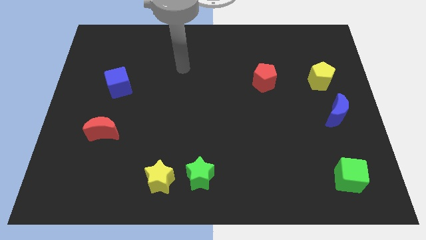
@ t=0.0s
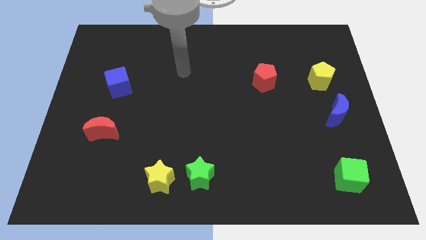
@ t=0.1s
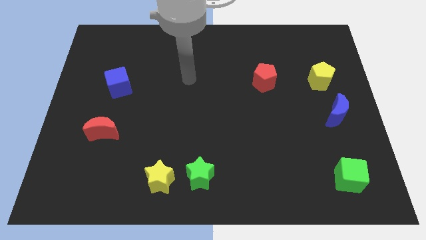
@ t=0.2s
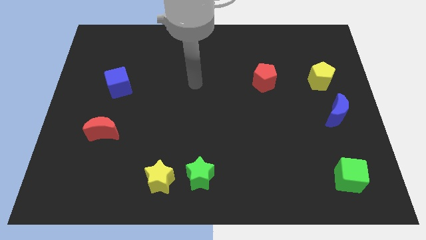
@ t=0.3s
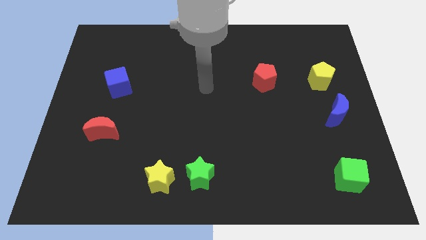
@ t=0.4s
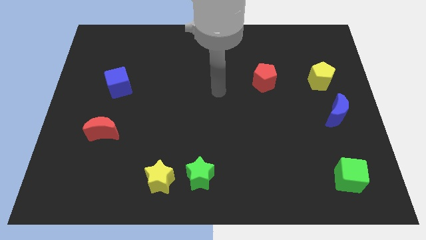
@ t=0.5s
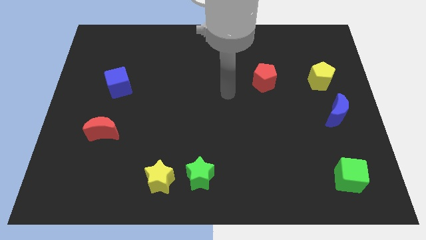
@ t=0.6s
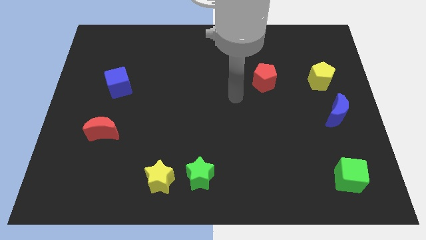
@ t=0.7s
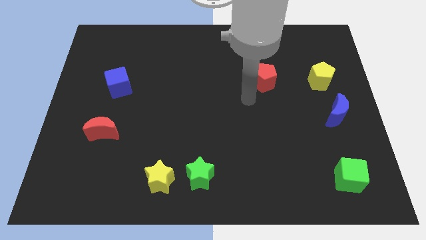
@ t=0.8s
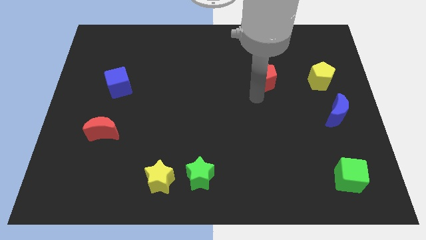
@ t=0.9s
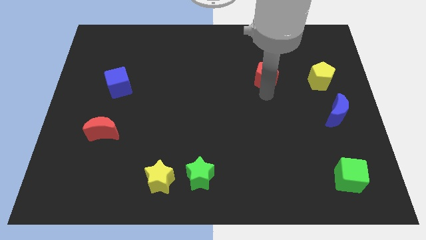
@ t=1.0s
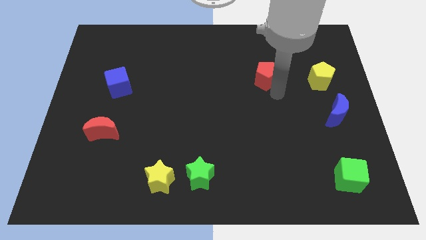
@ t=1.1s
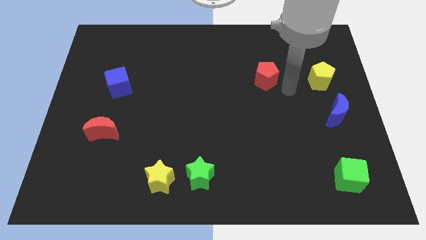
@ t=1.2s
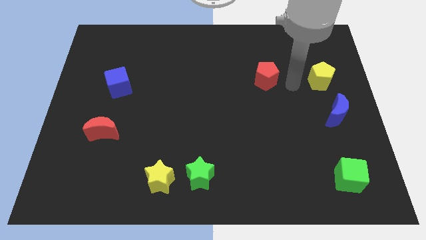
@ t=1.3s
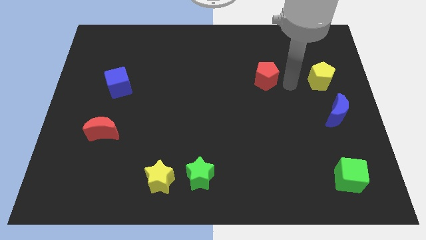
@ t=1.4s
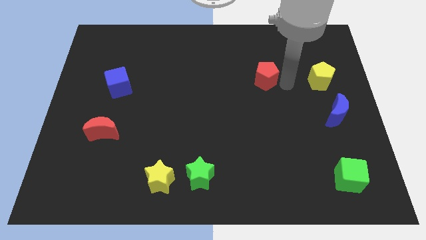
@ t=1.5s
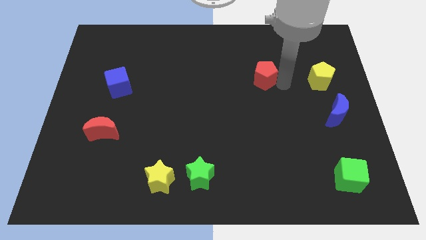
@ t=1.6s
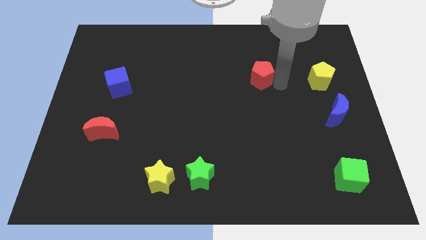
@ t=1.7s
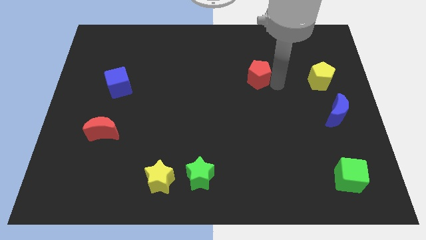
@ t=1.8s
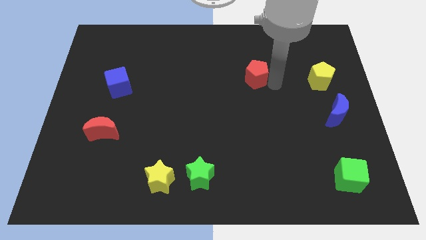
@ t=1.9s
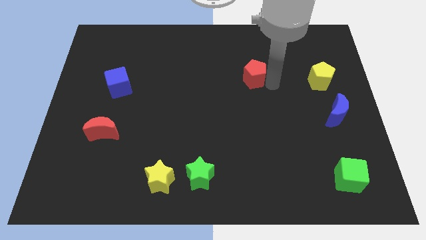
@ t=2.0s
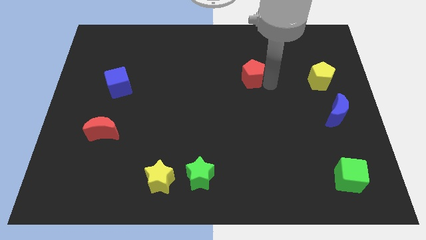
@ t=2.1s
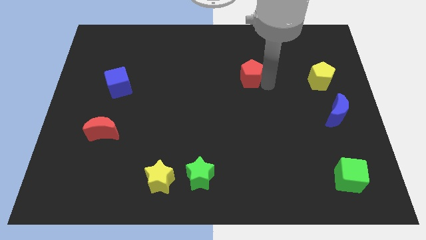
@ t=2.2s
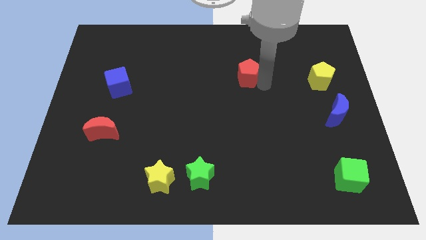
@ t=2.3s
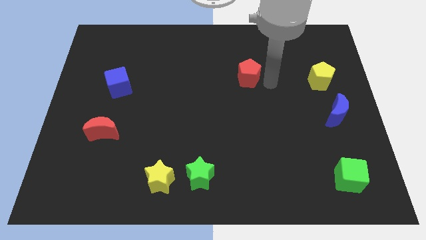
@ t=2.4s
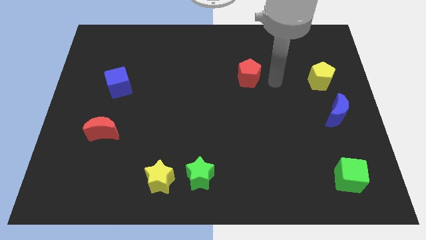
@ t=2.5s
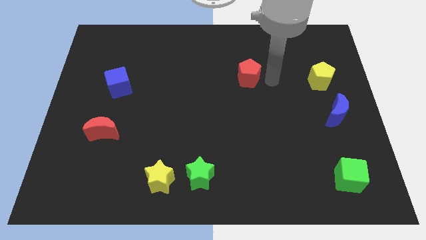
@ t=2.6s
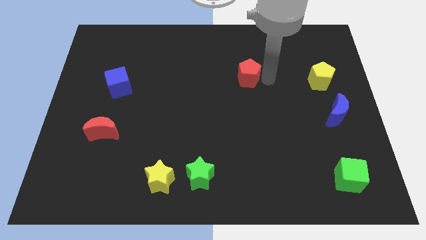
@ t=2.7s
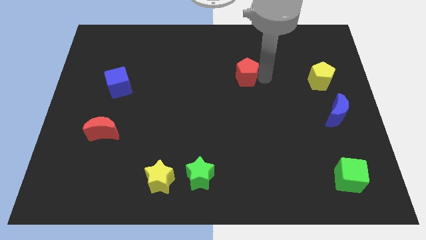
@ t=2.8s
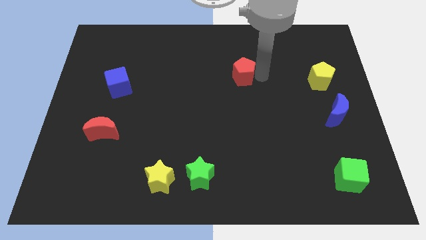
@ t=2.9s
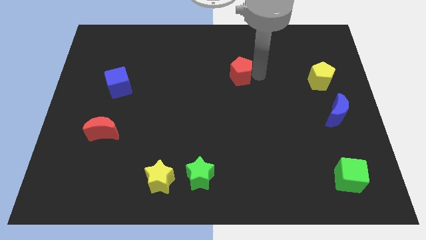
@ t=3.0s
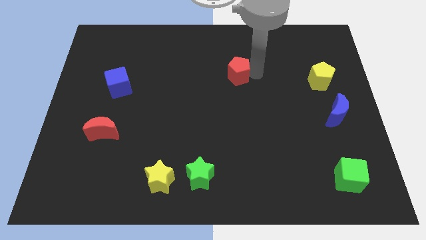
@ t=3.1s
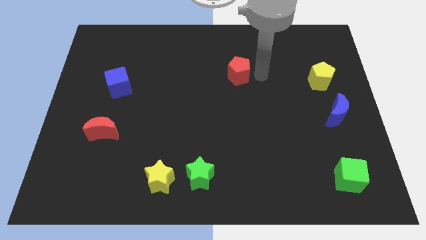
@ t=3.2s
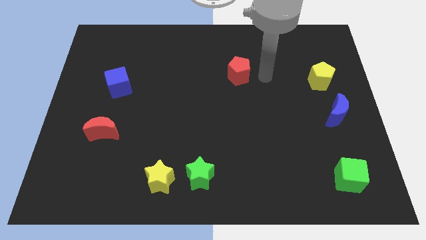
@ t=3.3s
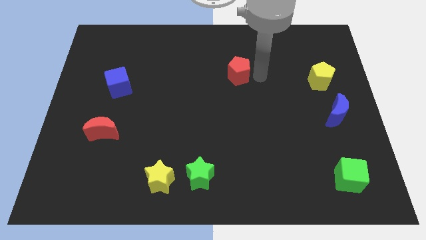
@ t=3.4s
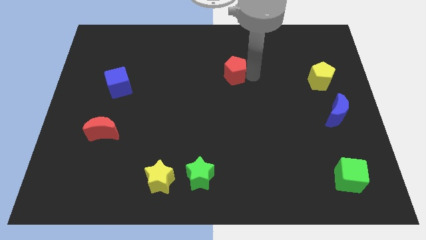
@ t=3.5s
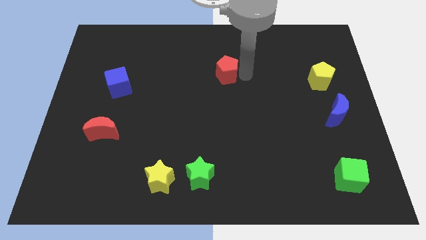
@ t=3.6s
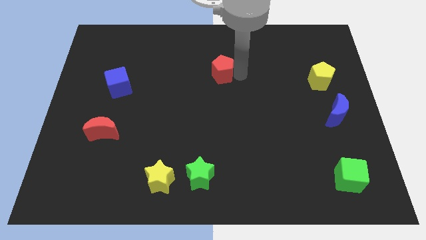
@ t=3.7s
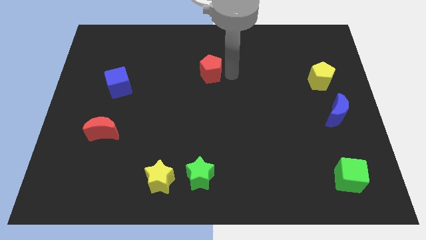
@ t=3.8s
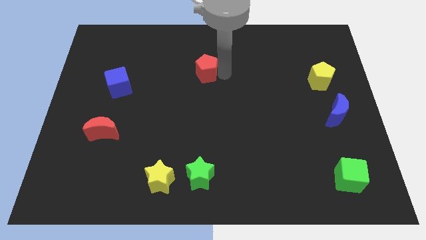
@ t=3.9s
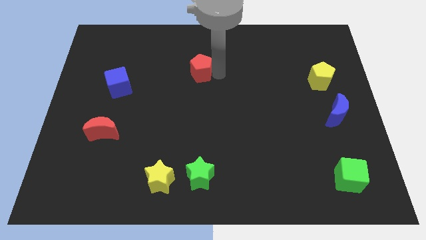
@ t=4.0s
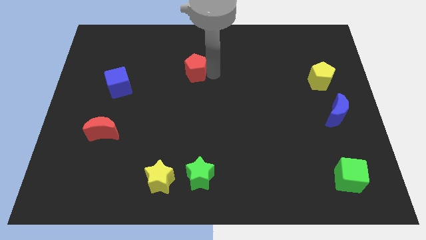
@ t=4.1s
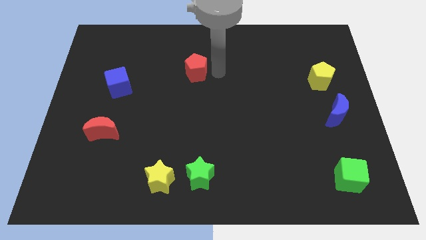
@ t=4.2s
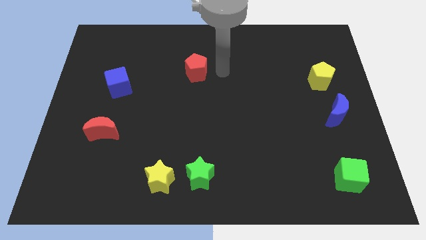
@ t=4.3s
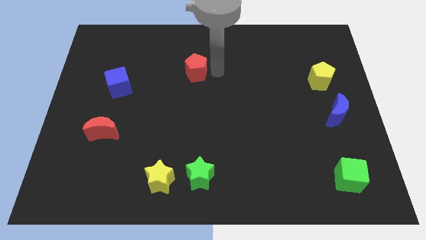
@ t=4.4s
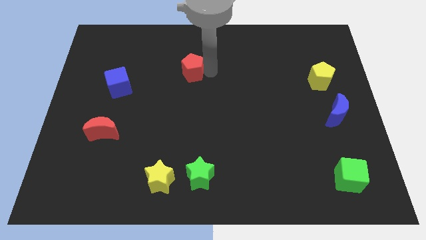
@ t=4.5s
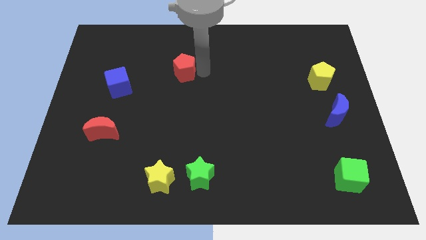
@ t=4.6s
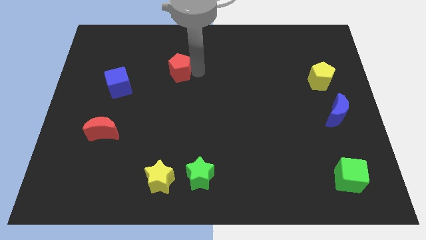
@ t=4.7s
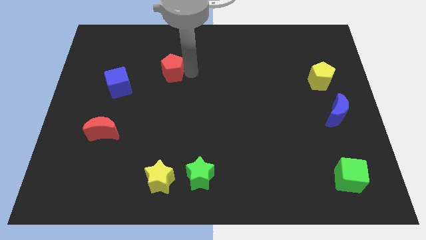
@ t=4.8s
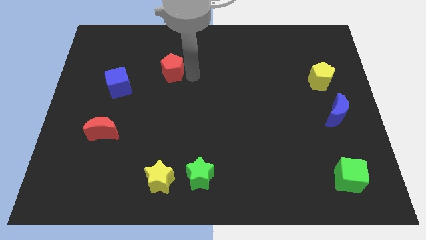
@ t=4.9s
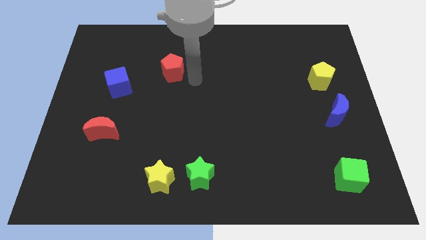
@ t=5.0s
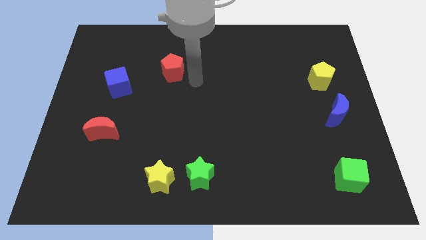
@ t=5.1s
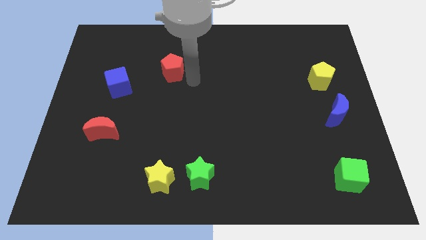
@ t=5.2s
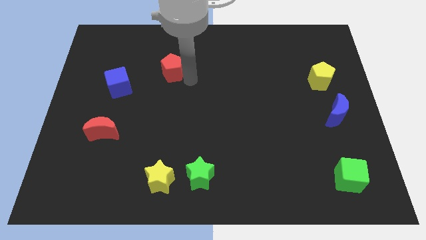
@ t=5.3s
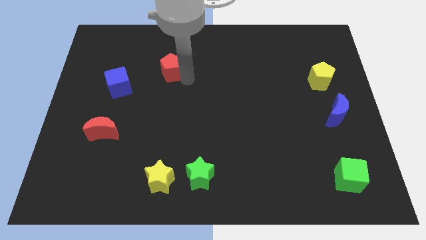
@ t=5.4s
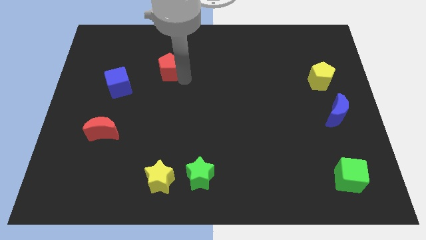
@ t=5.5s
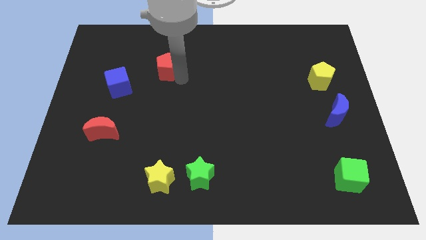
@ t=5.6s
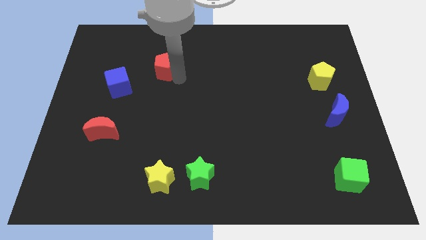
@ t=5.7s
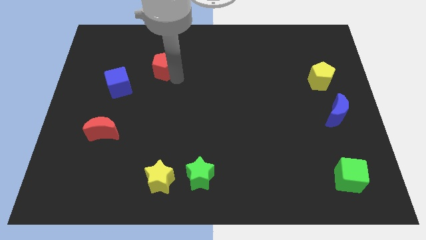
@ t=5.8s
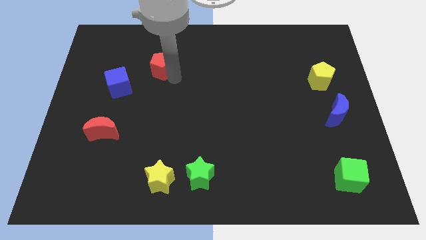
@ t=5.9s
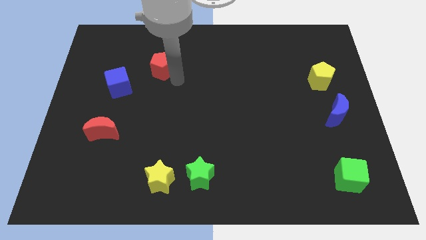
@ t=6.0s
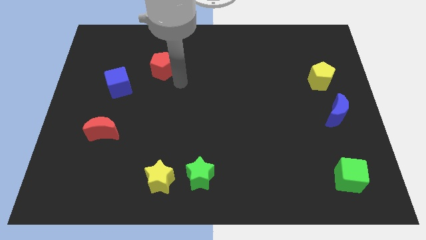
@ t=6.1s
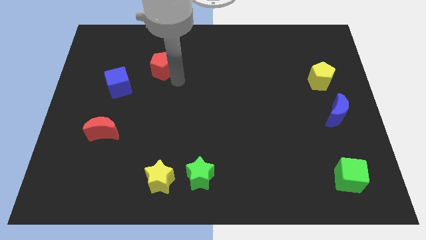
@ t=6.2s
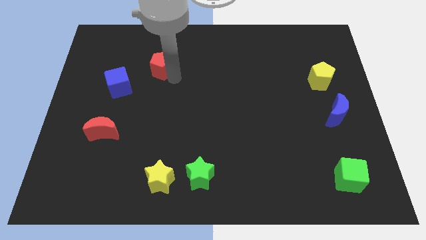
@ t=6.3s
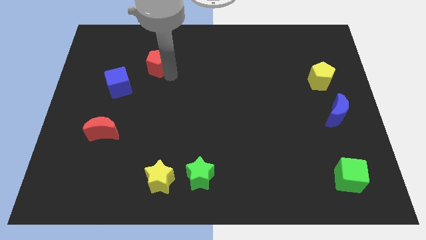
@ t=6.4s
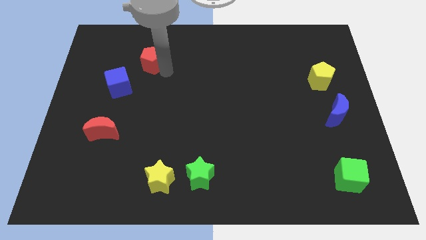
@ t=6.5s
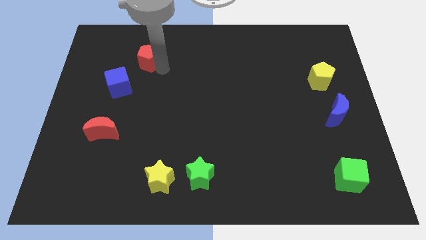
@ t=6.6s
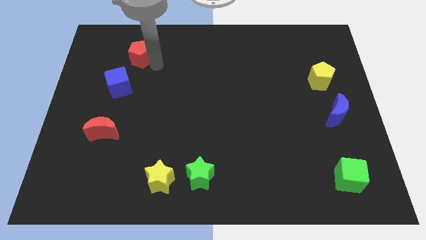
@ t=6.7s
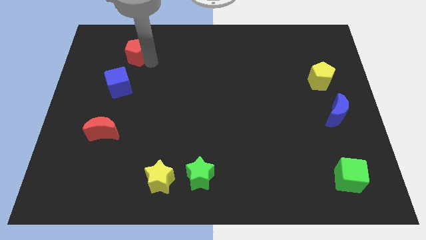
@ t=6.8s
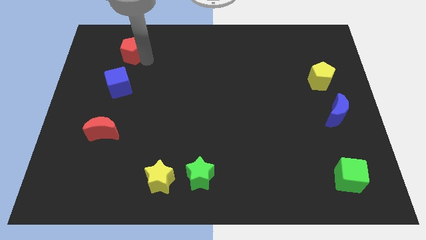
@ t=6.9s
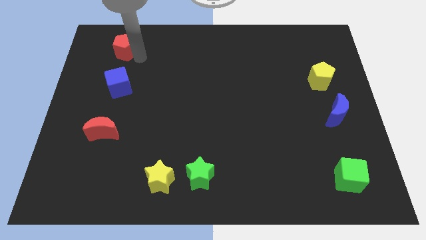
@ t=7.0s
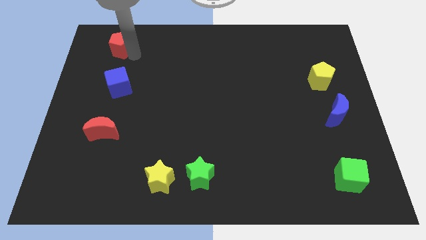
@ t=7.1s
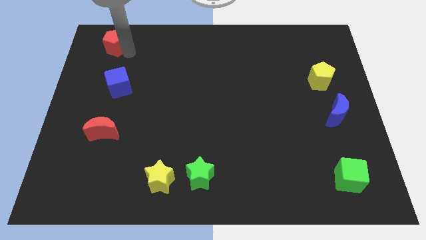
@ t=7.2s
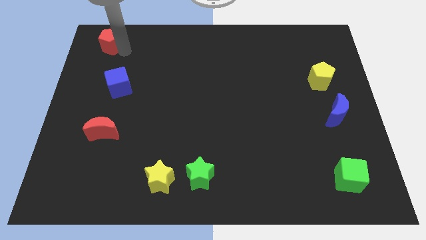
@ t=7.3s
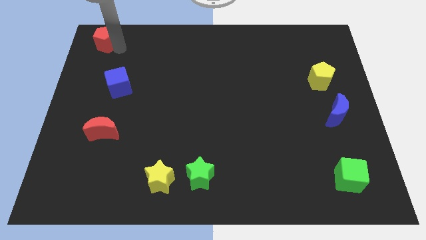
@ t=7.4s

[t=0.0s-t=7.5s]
put the red pentagon to the top left corner

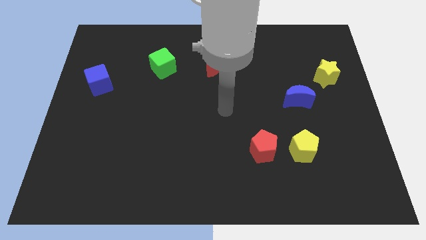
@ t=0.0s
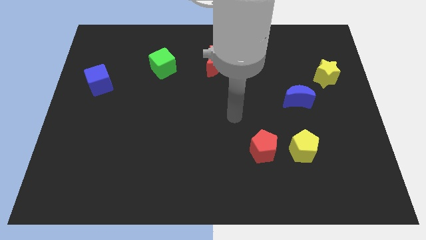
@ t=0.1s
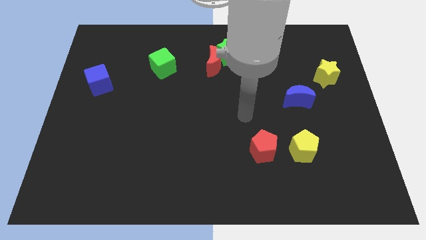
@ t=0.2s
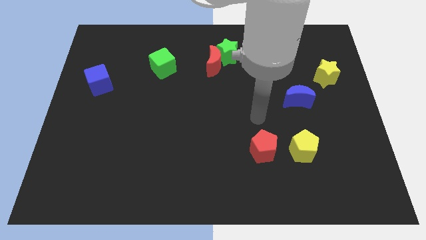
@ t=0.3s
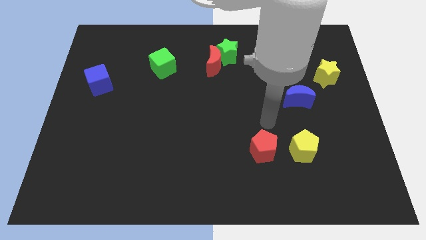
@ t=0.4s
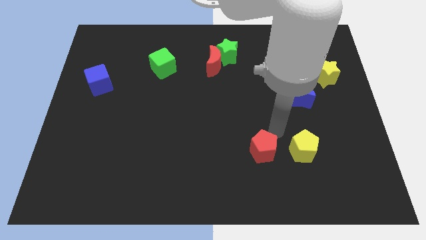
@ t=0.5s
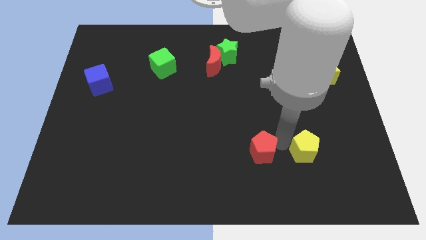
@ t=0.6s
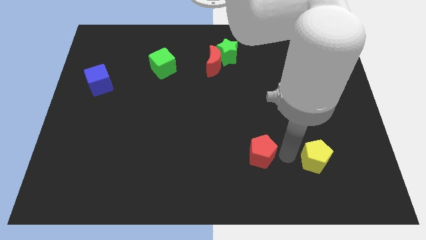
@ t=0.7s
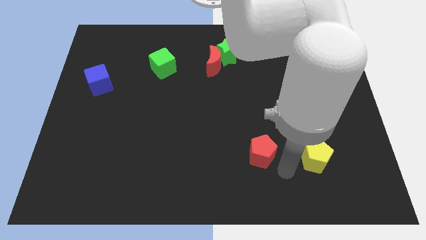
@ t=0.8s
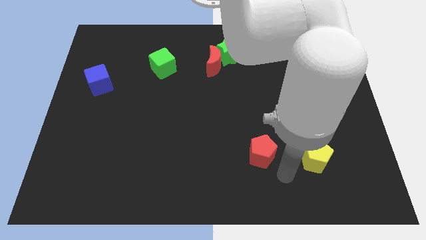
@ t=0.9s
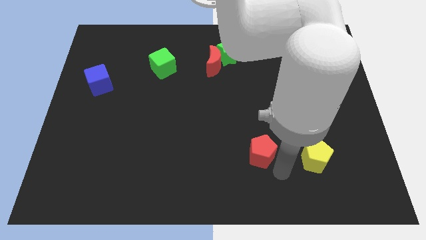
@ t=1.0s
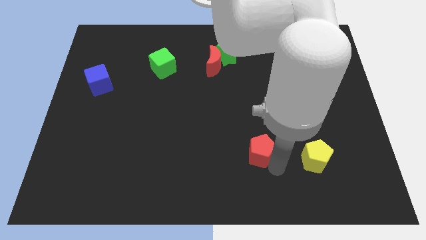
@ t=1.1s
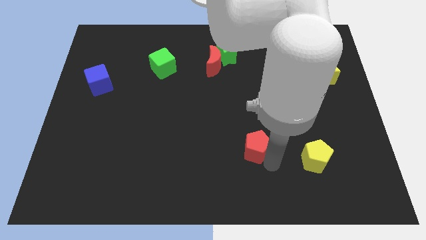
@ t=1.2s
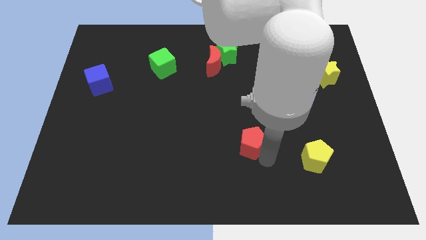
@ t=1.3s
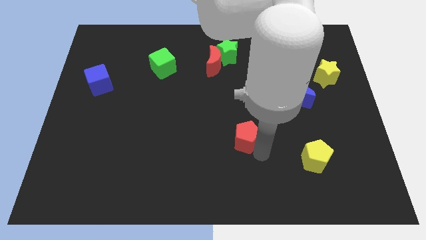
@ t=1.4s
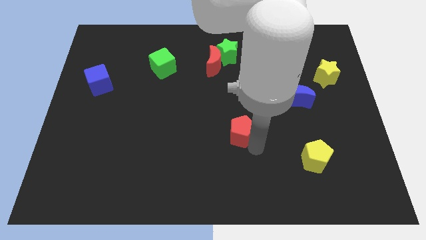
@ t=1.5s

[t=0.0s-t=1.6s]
move the red pentagon to the center of the board
